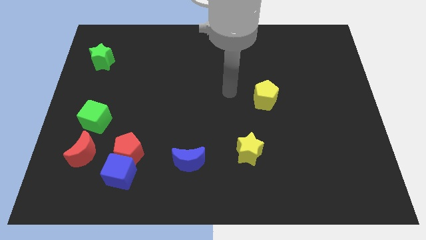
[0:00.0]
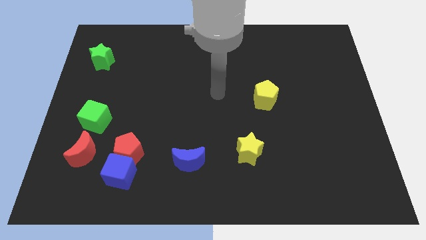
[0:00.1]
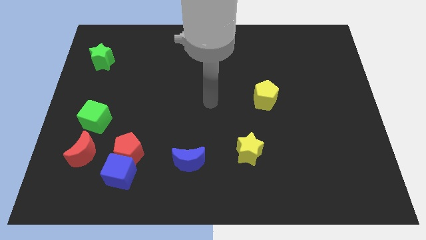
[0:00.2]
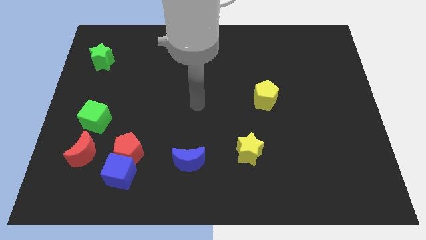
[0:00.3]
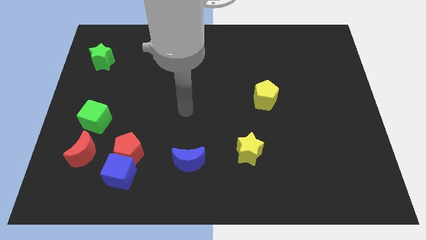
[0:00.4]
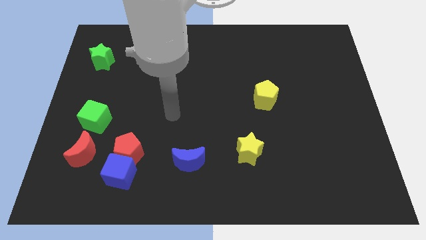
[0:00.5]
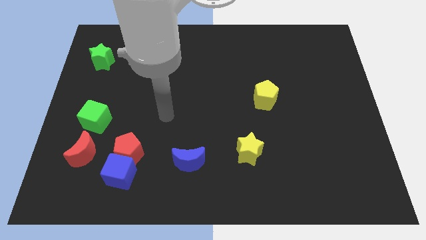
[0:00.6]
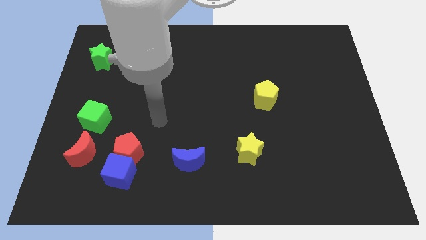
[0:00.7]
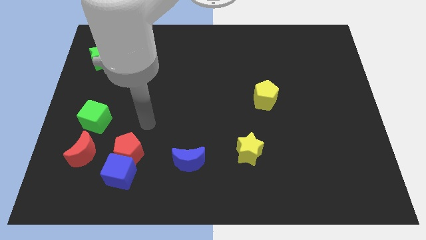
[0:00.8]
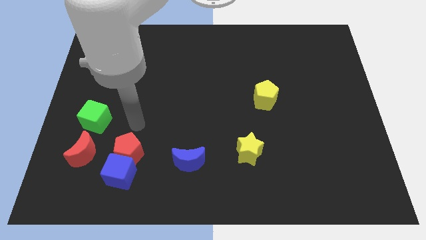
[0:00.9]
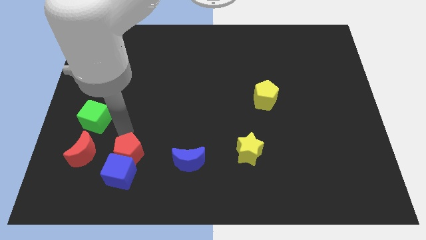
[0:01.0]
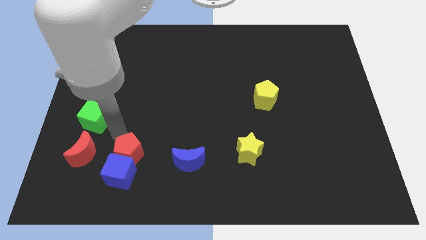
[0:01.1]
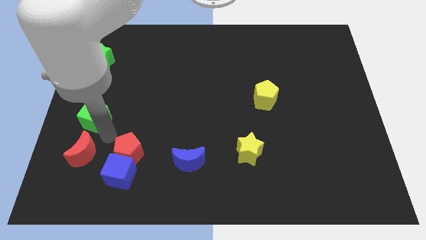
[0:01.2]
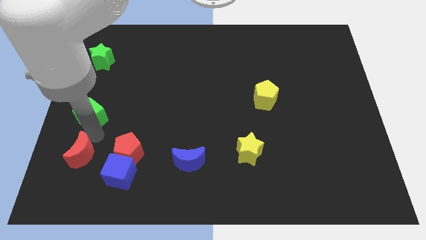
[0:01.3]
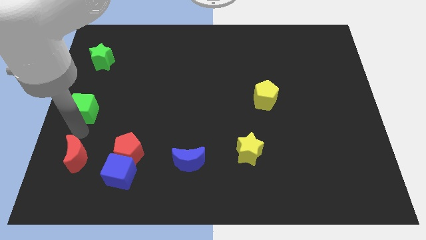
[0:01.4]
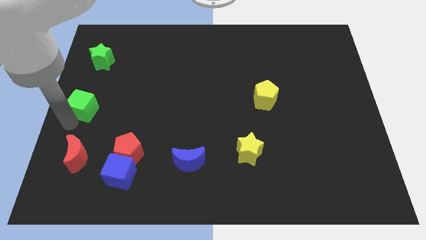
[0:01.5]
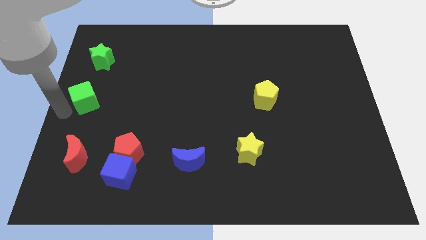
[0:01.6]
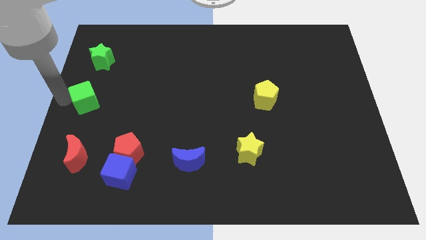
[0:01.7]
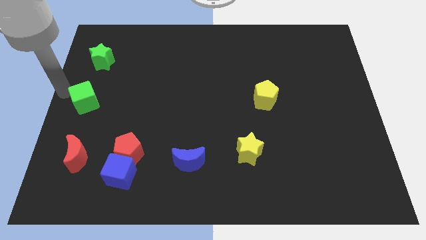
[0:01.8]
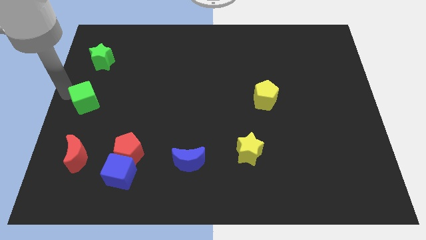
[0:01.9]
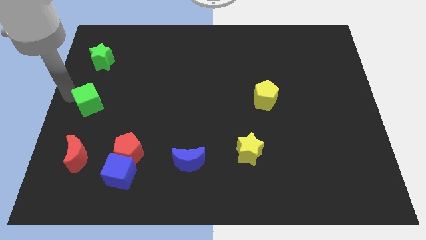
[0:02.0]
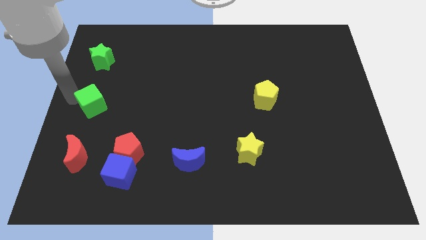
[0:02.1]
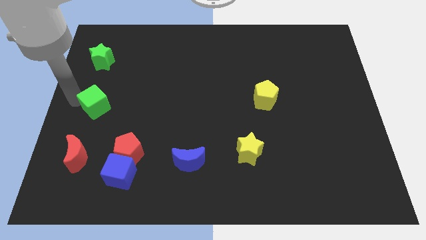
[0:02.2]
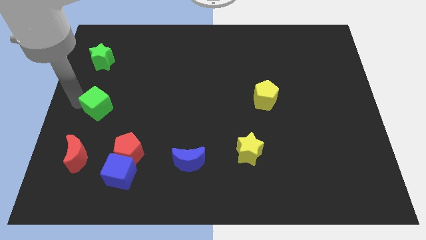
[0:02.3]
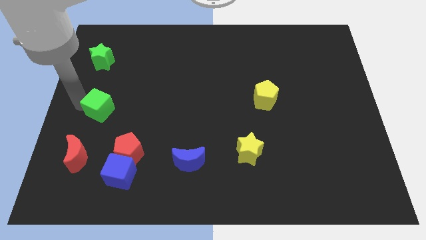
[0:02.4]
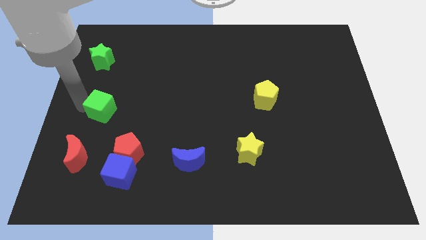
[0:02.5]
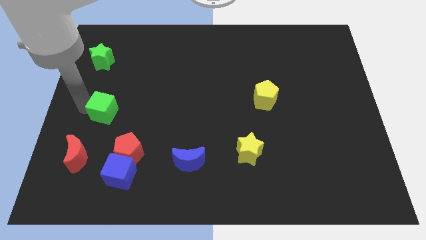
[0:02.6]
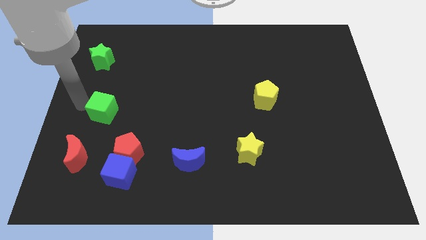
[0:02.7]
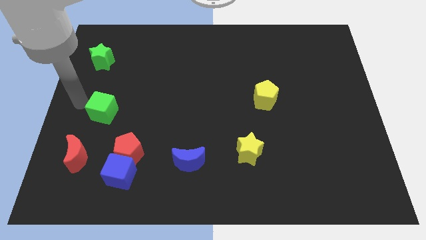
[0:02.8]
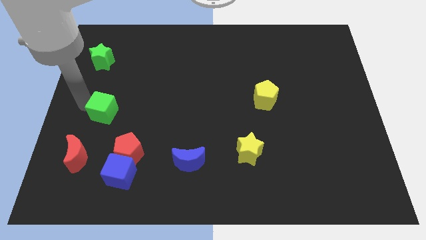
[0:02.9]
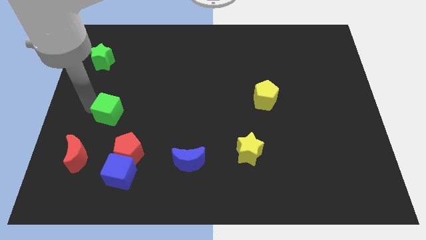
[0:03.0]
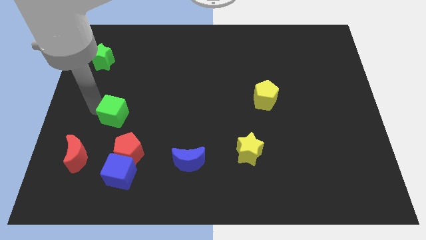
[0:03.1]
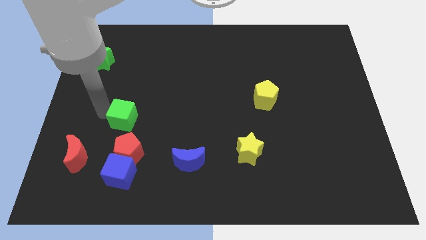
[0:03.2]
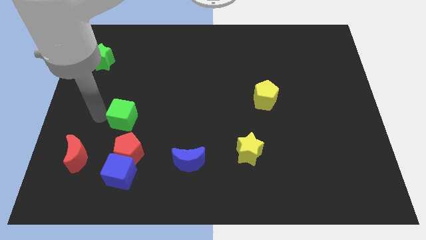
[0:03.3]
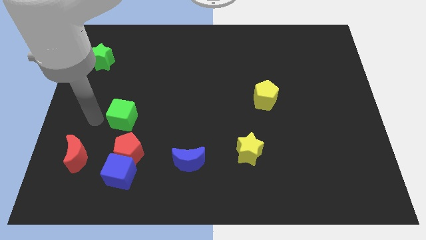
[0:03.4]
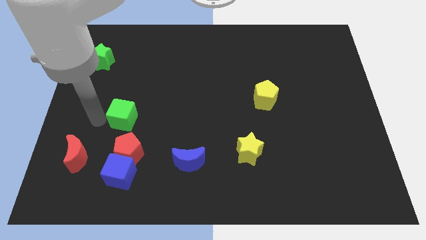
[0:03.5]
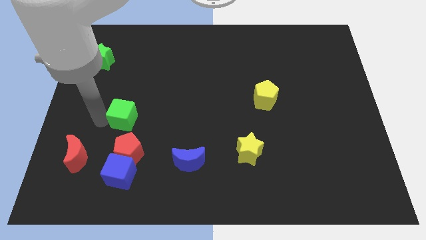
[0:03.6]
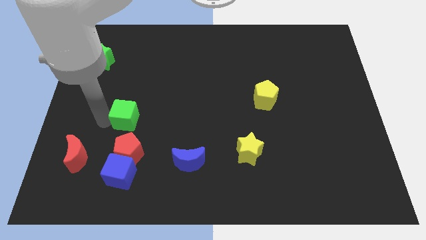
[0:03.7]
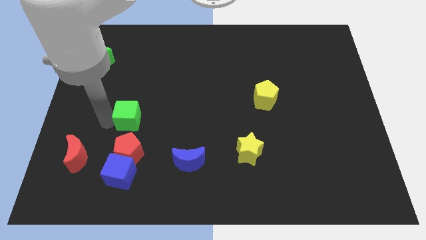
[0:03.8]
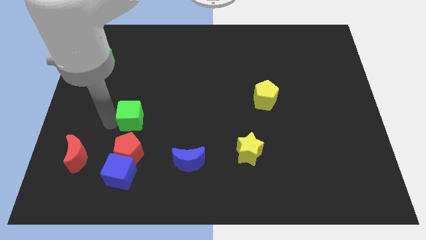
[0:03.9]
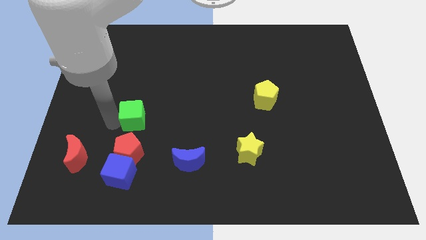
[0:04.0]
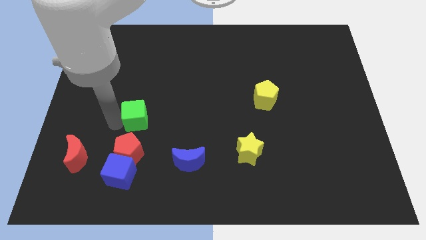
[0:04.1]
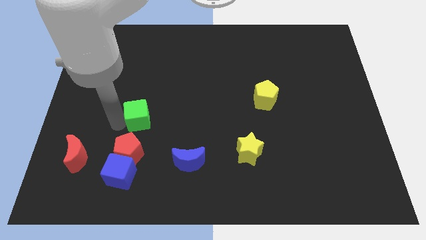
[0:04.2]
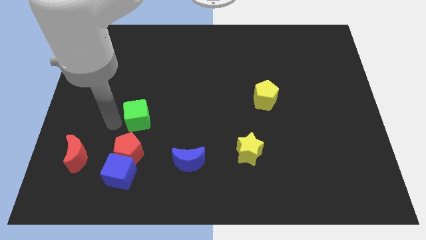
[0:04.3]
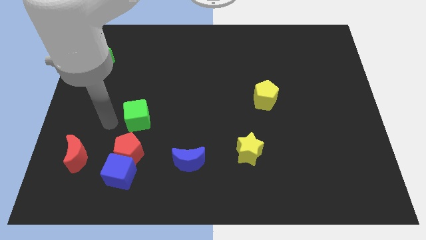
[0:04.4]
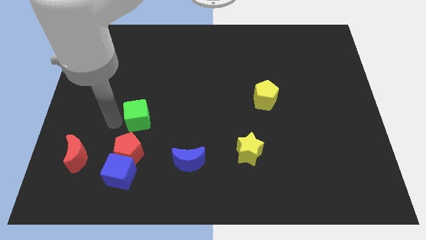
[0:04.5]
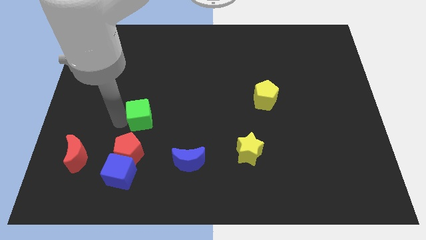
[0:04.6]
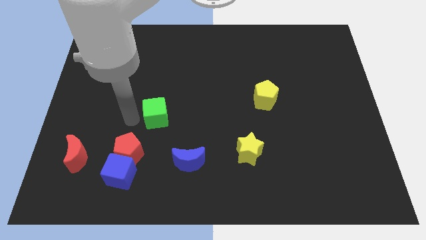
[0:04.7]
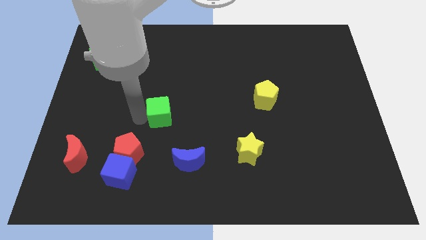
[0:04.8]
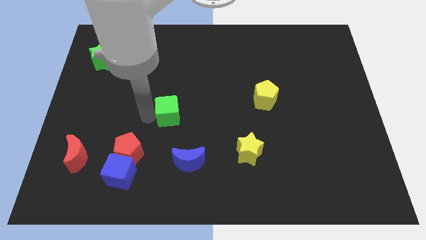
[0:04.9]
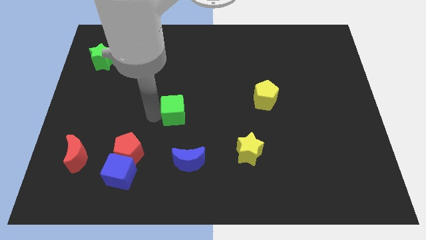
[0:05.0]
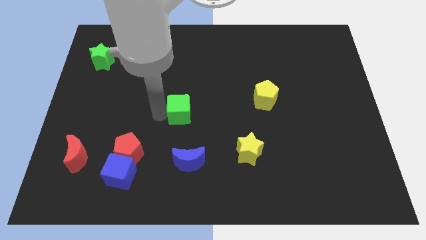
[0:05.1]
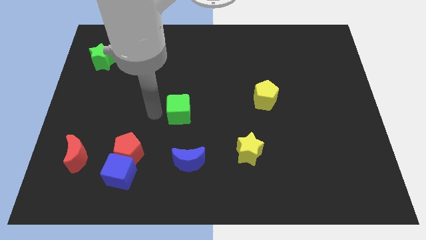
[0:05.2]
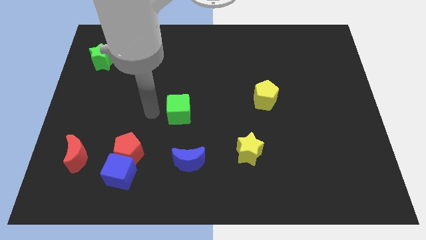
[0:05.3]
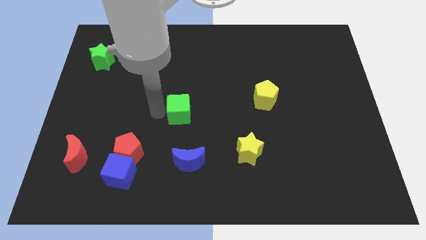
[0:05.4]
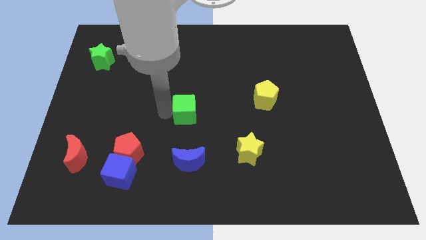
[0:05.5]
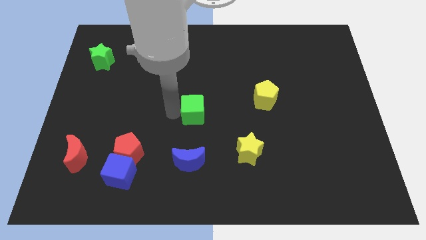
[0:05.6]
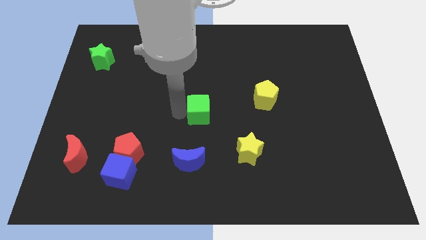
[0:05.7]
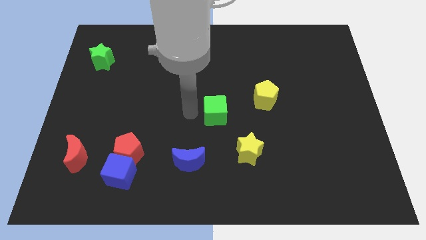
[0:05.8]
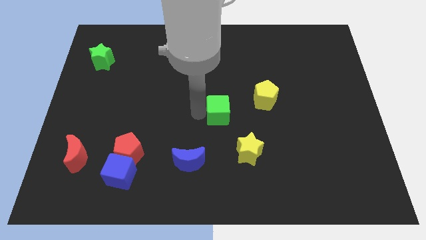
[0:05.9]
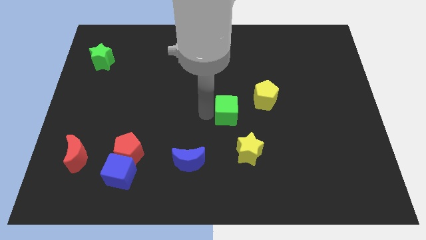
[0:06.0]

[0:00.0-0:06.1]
put the green cube to the top of the yellow star

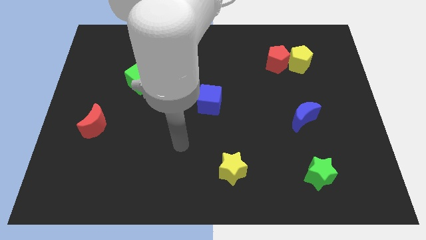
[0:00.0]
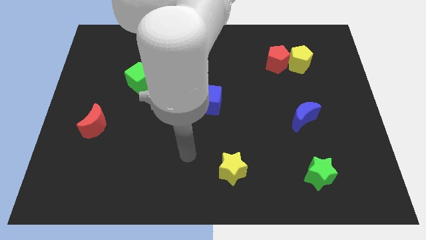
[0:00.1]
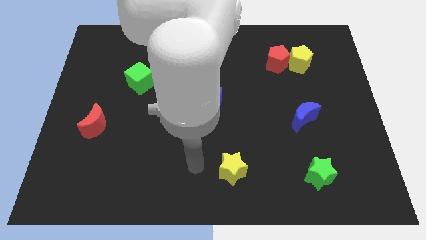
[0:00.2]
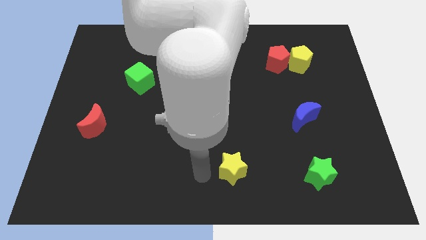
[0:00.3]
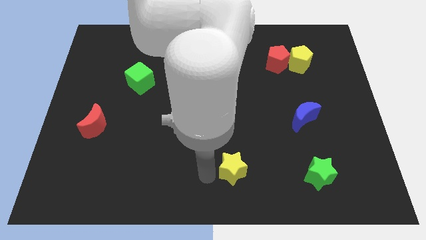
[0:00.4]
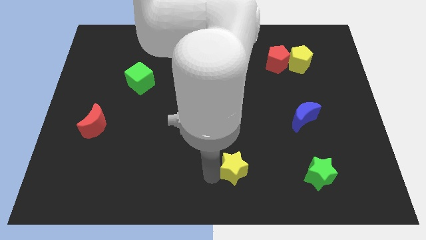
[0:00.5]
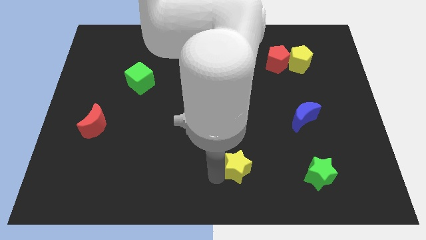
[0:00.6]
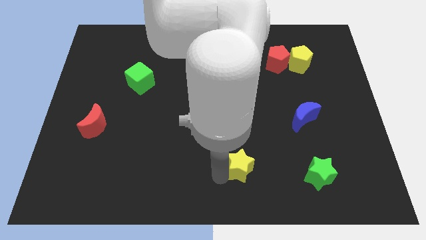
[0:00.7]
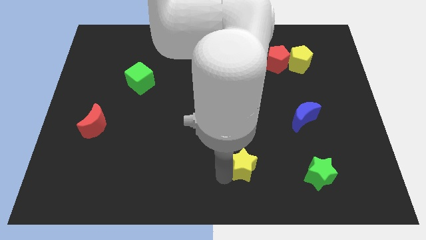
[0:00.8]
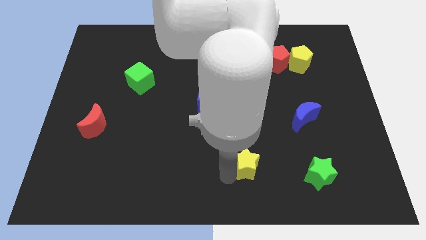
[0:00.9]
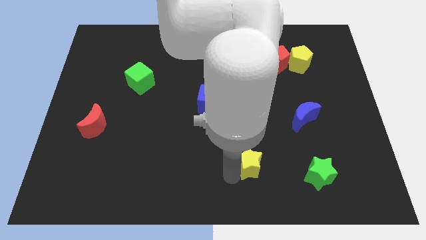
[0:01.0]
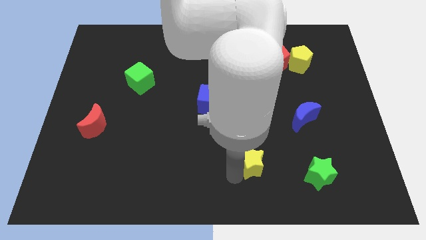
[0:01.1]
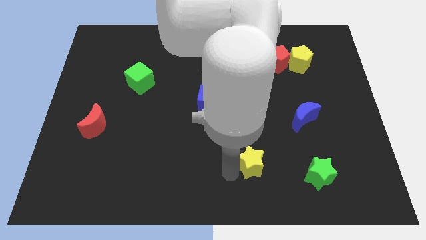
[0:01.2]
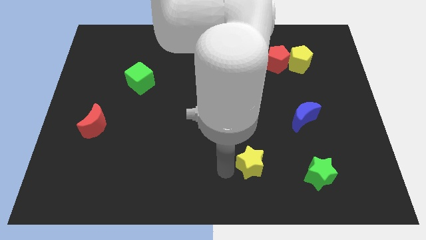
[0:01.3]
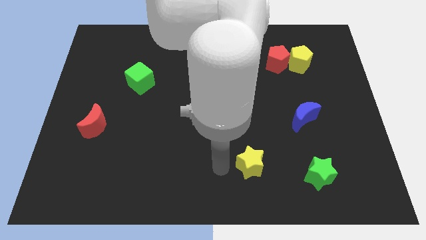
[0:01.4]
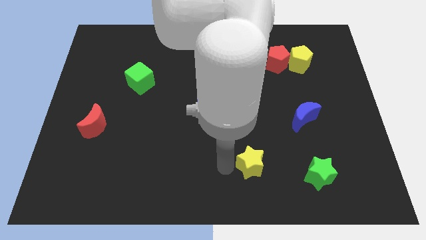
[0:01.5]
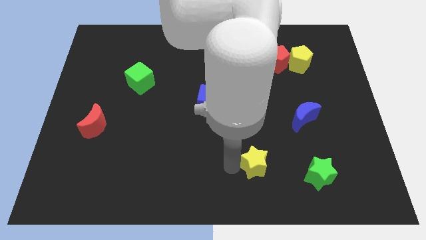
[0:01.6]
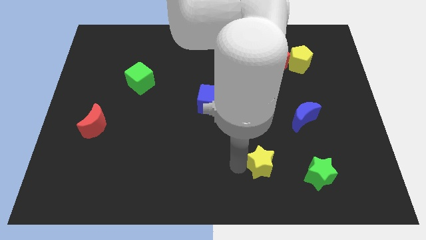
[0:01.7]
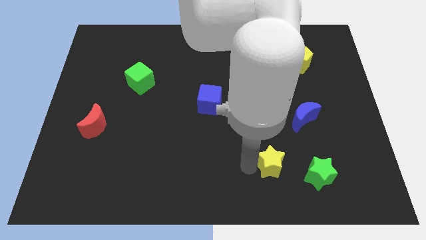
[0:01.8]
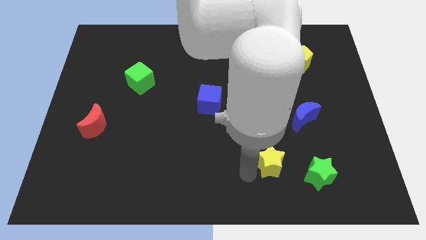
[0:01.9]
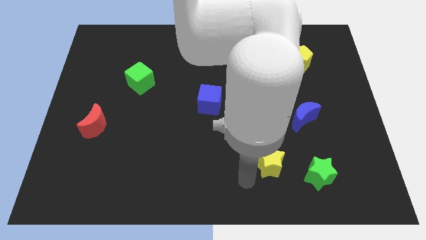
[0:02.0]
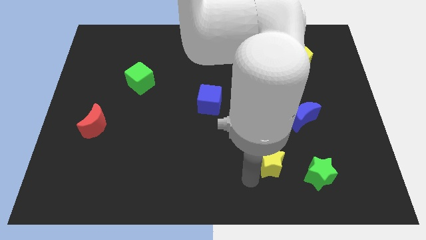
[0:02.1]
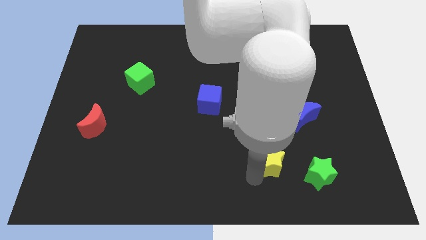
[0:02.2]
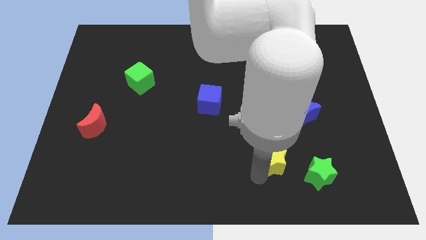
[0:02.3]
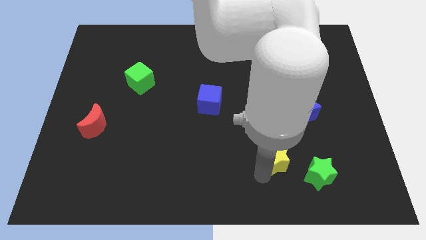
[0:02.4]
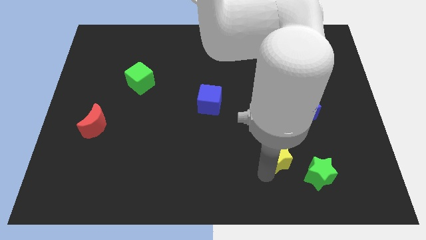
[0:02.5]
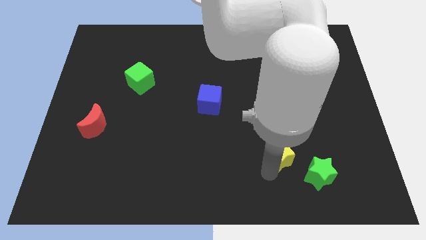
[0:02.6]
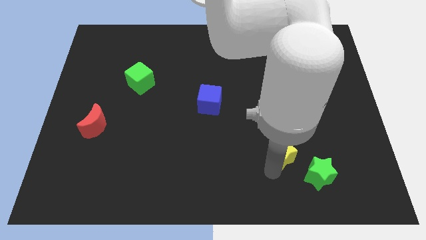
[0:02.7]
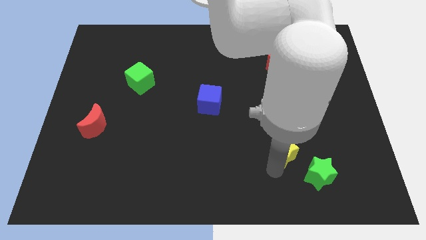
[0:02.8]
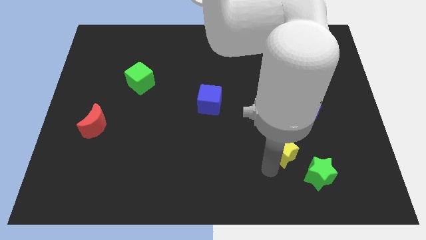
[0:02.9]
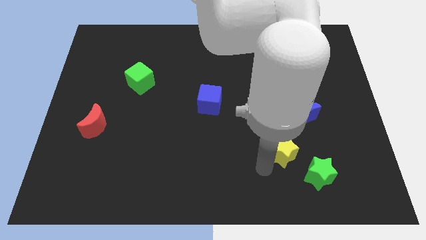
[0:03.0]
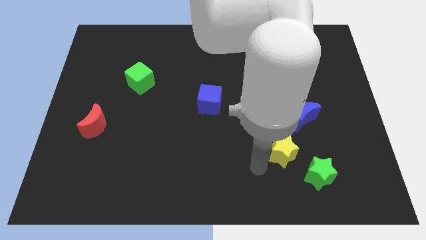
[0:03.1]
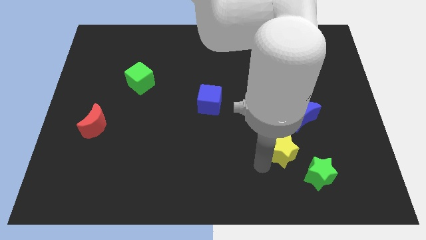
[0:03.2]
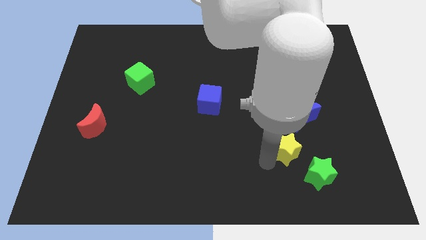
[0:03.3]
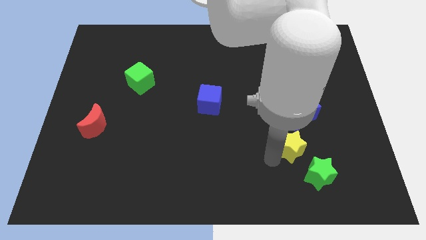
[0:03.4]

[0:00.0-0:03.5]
push the yellow star to the top side of the green star
